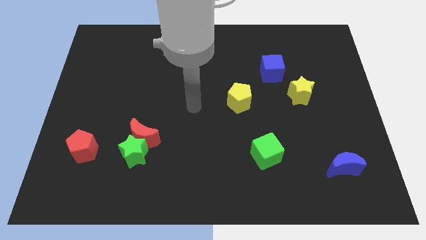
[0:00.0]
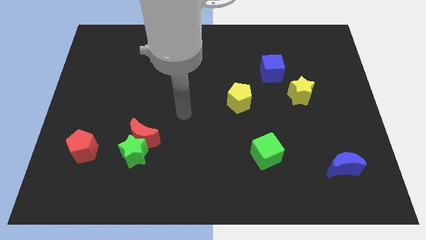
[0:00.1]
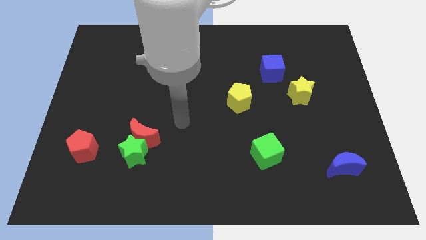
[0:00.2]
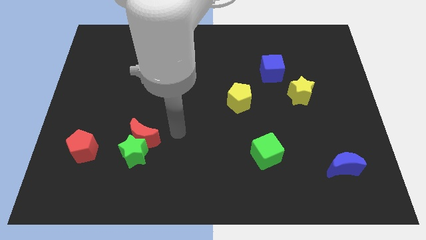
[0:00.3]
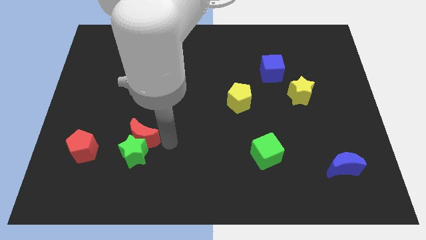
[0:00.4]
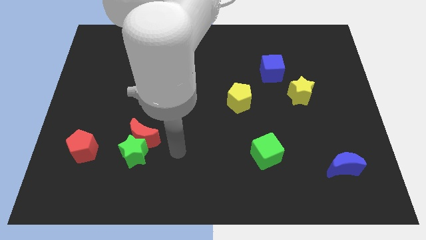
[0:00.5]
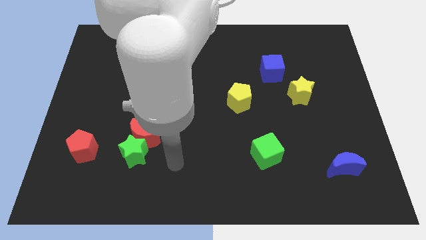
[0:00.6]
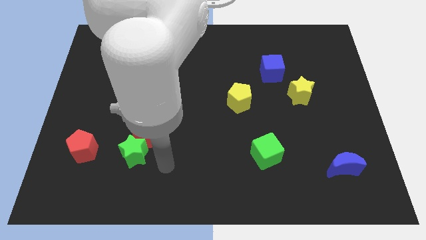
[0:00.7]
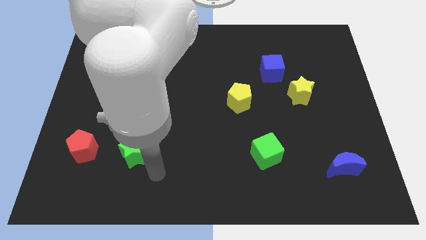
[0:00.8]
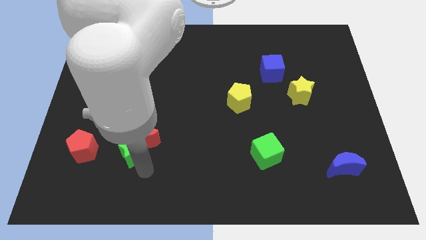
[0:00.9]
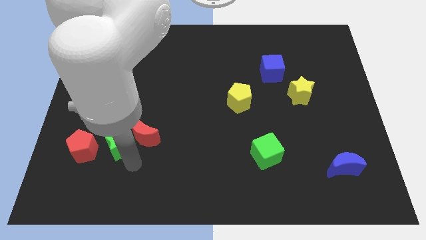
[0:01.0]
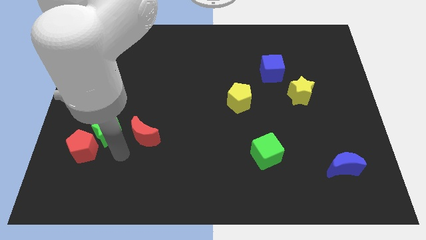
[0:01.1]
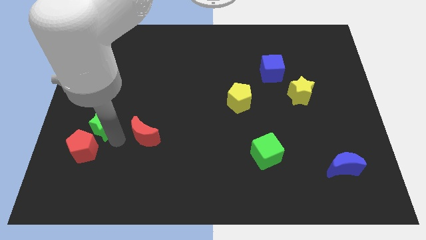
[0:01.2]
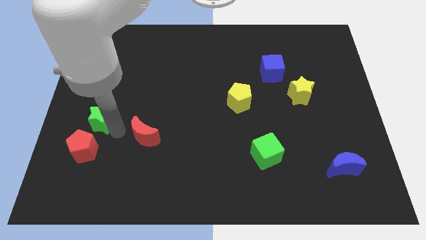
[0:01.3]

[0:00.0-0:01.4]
move the red moon away from the green star

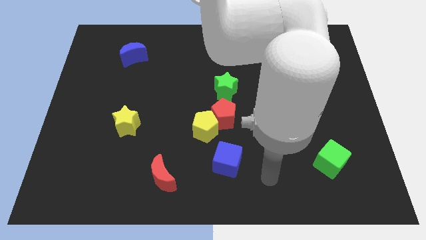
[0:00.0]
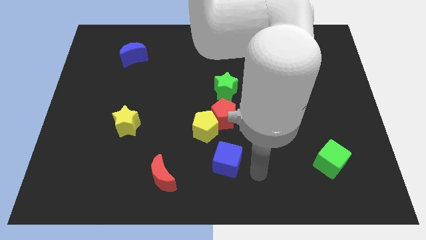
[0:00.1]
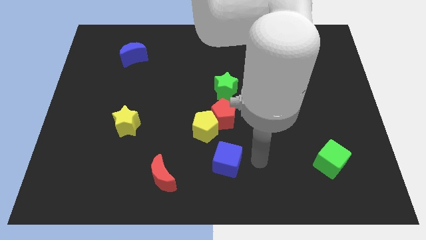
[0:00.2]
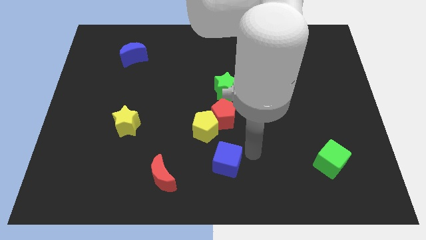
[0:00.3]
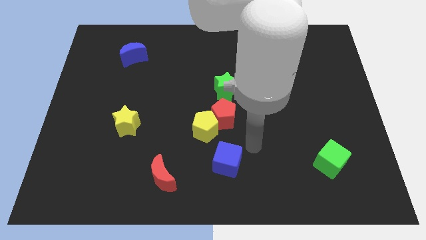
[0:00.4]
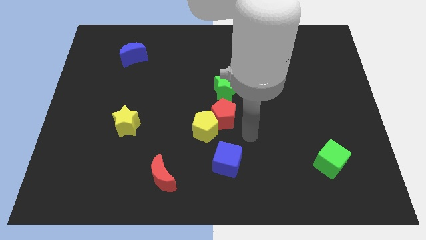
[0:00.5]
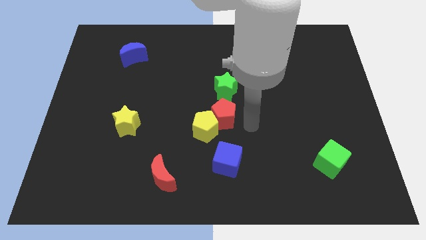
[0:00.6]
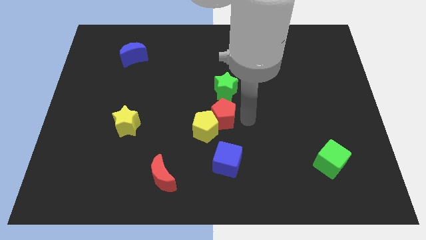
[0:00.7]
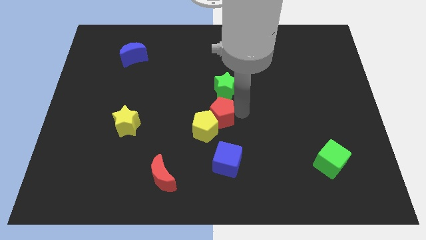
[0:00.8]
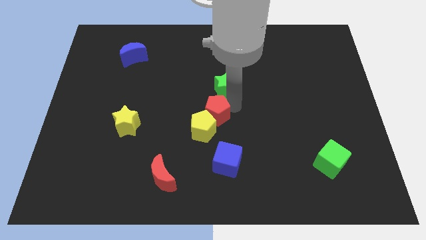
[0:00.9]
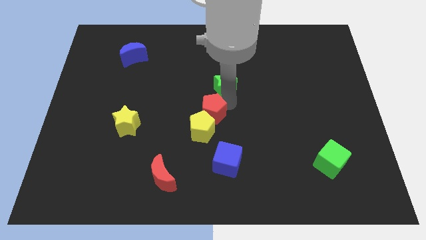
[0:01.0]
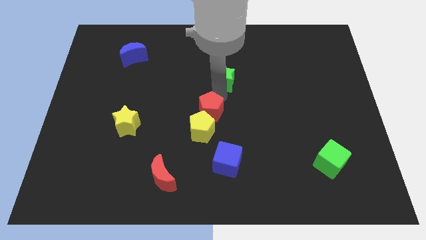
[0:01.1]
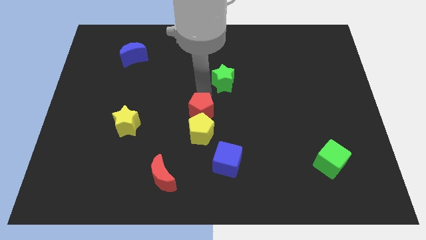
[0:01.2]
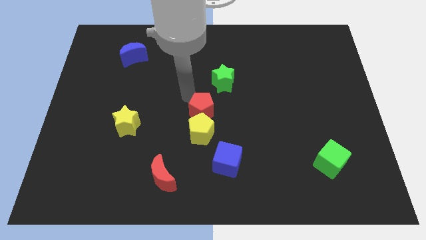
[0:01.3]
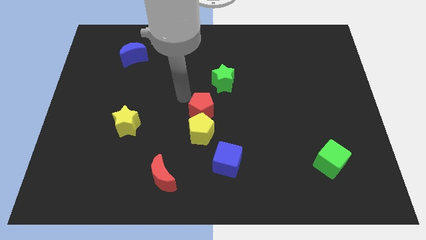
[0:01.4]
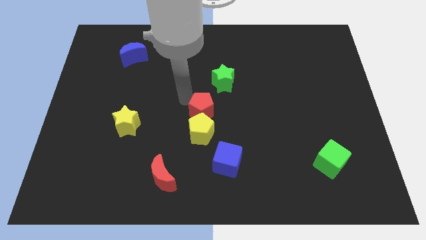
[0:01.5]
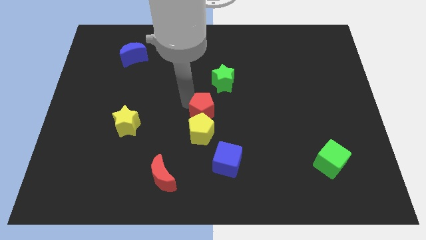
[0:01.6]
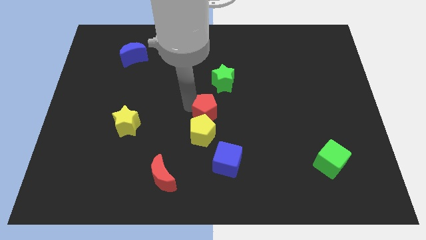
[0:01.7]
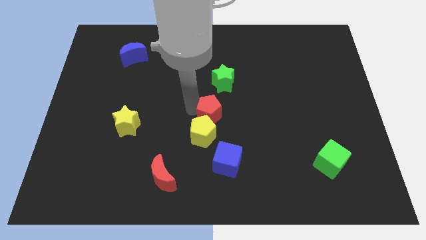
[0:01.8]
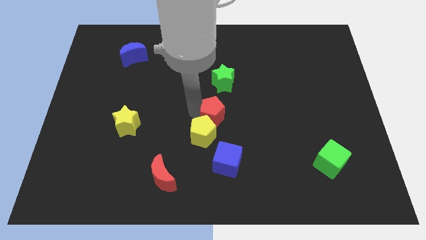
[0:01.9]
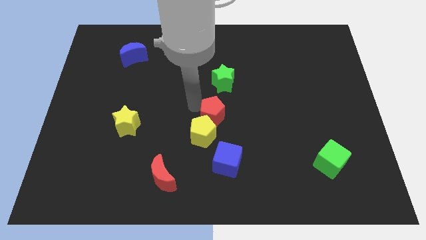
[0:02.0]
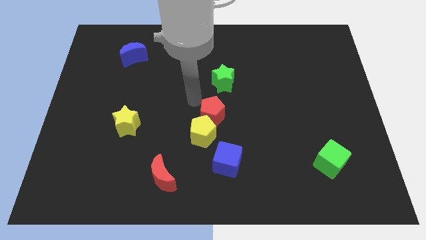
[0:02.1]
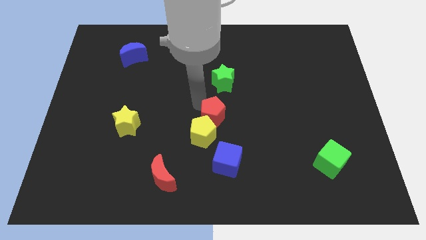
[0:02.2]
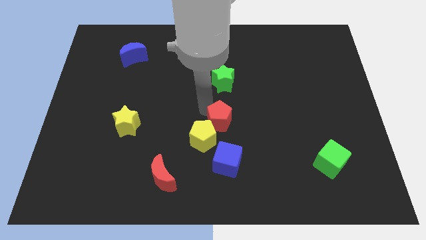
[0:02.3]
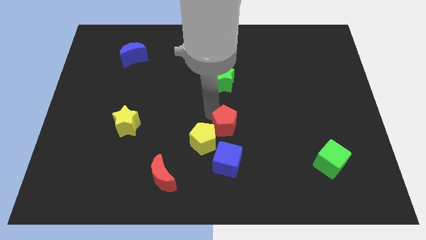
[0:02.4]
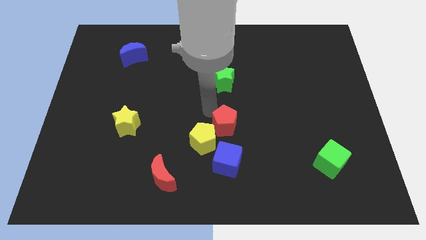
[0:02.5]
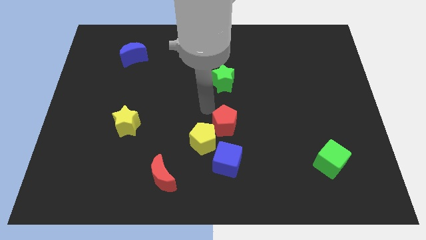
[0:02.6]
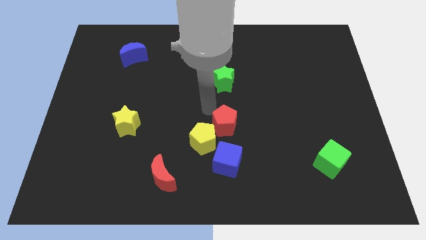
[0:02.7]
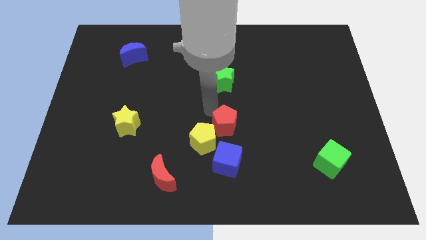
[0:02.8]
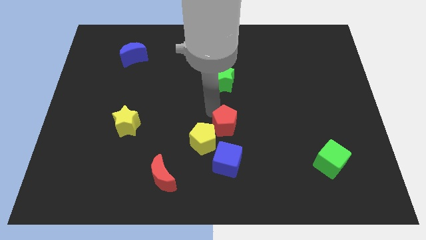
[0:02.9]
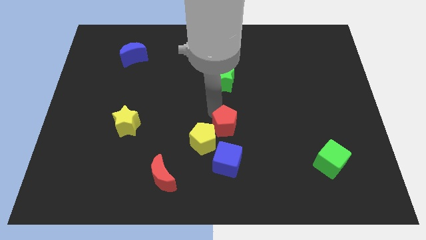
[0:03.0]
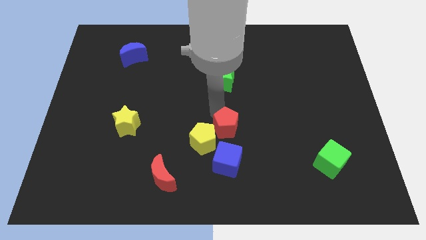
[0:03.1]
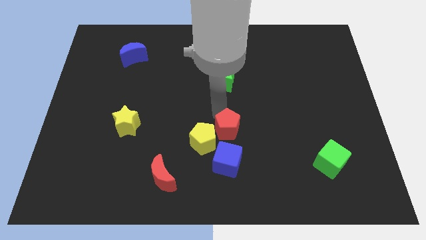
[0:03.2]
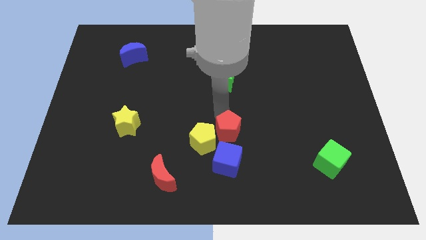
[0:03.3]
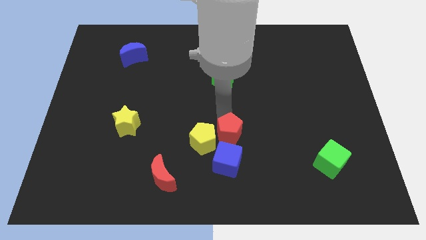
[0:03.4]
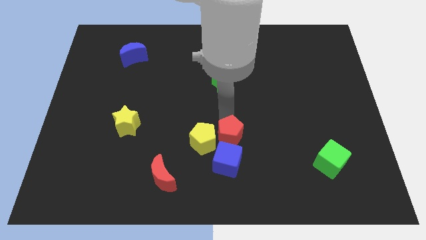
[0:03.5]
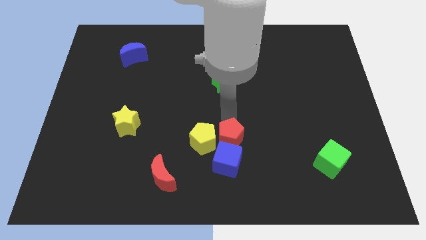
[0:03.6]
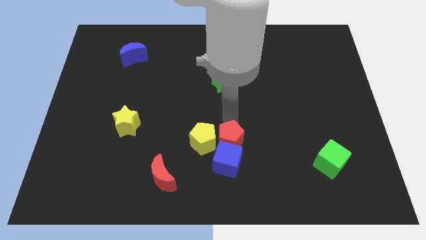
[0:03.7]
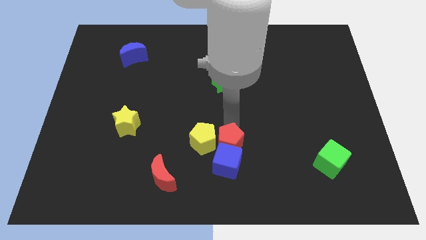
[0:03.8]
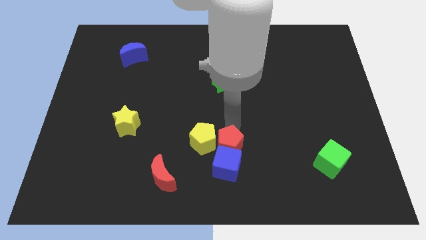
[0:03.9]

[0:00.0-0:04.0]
move the red pentagon away from the yellow pentagon and green star

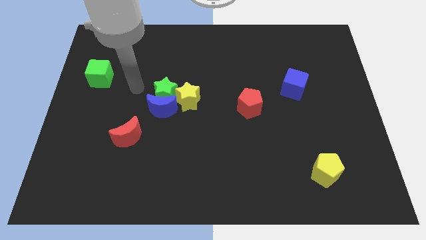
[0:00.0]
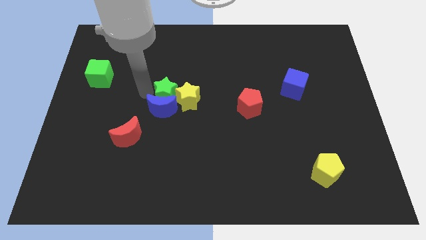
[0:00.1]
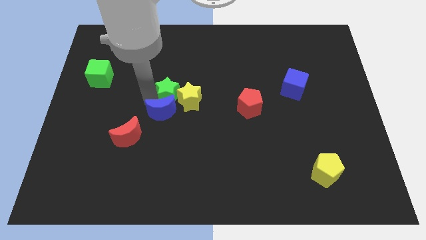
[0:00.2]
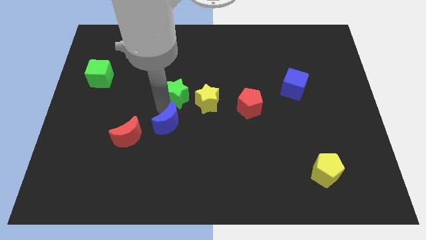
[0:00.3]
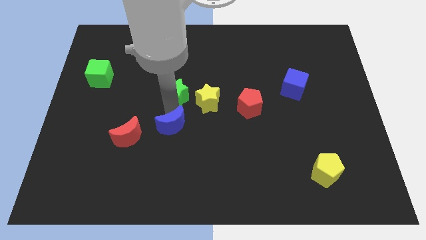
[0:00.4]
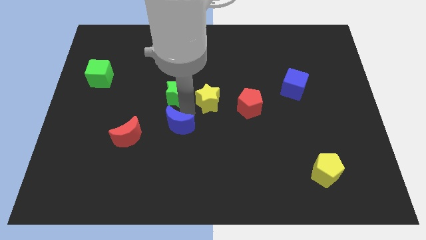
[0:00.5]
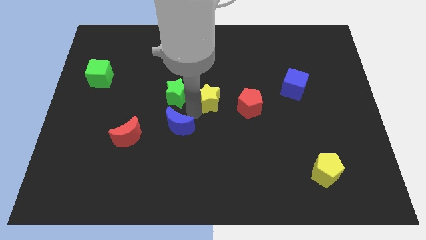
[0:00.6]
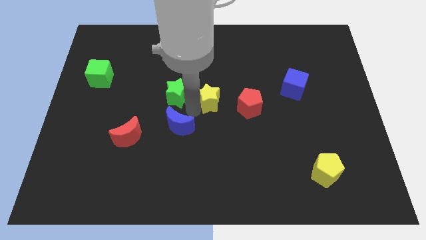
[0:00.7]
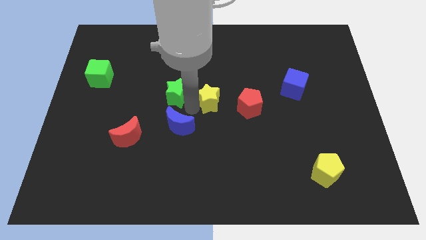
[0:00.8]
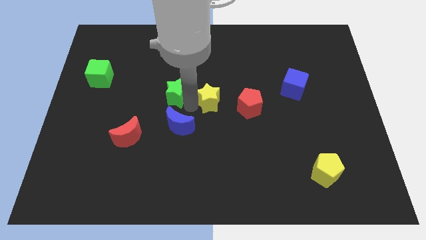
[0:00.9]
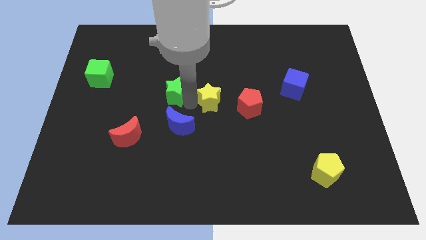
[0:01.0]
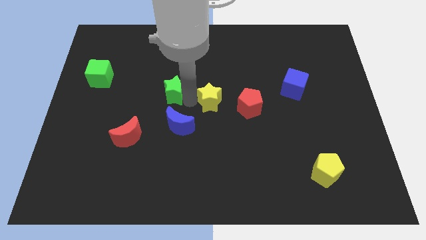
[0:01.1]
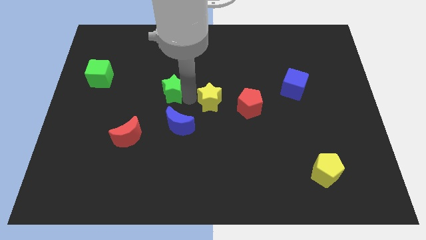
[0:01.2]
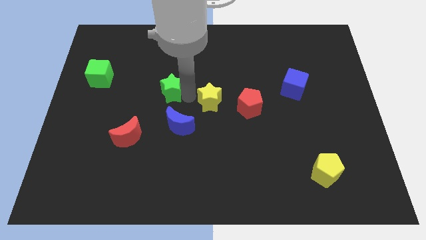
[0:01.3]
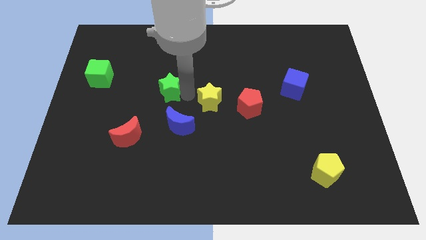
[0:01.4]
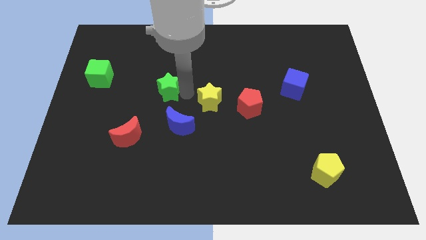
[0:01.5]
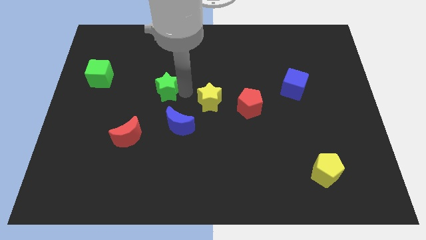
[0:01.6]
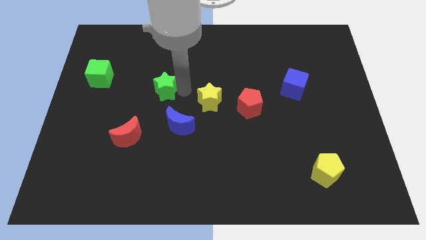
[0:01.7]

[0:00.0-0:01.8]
move the green star away from the blue moon and yellow star

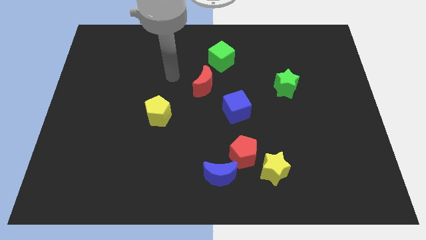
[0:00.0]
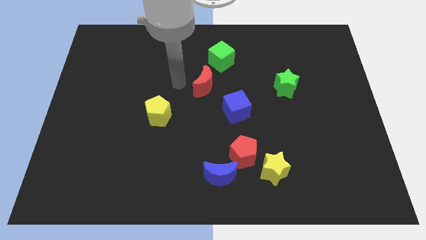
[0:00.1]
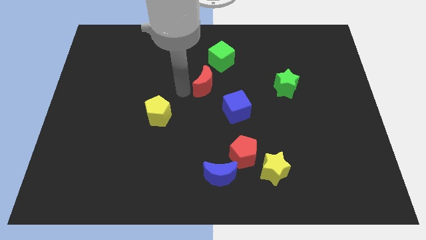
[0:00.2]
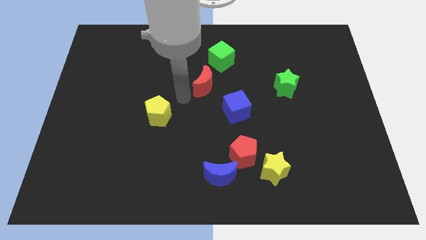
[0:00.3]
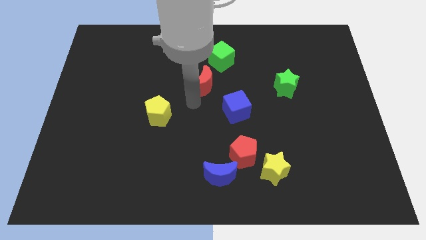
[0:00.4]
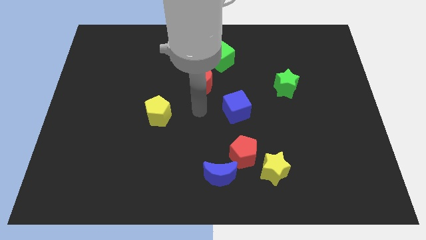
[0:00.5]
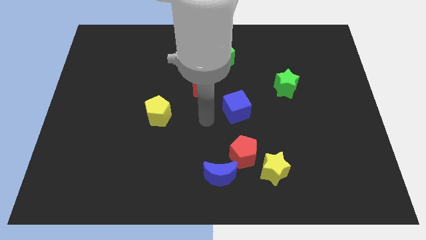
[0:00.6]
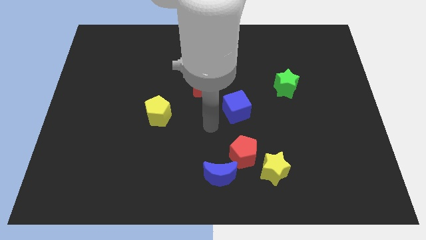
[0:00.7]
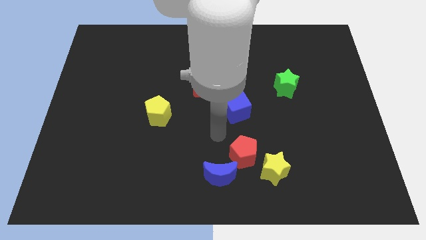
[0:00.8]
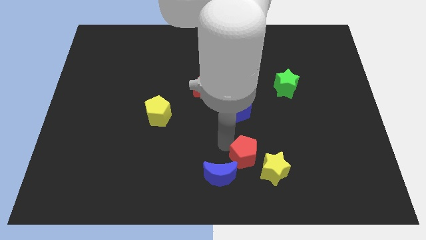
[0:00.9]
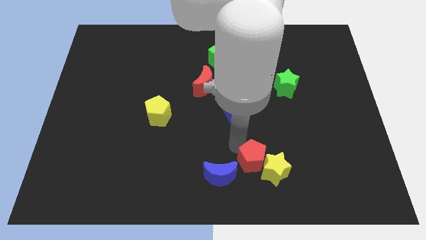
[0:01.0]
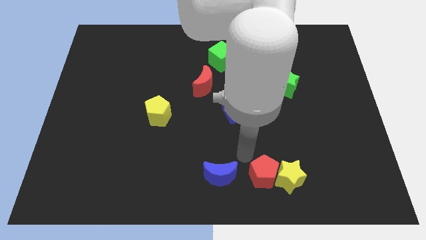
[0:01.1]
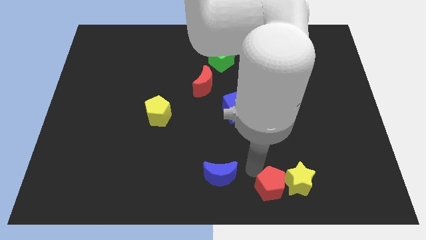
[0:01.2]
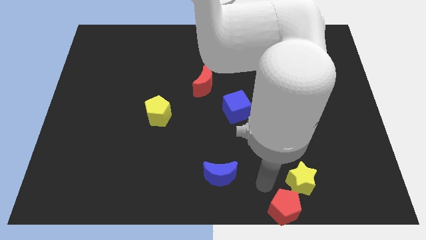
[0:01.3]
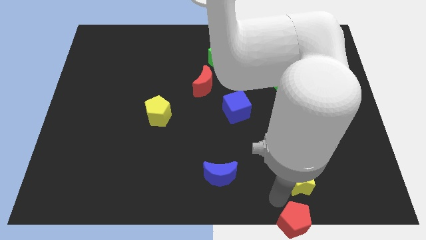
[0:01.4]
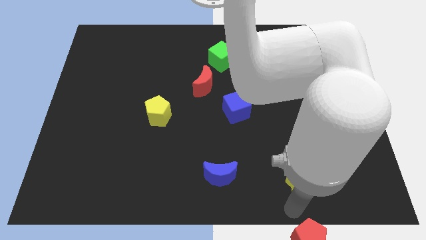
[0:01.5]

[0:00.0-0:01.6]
move the yellow star away from the red pentagon

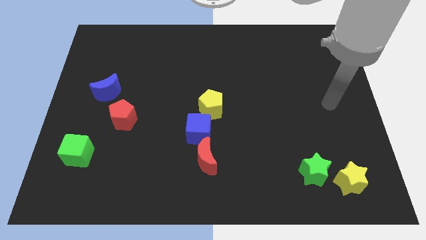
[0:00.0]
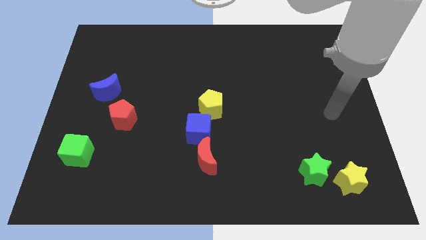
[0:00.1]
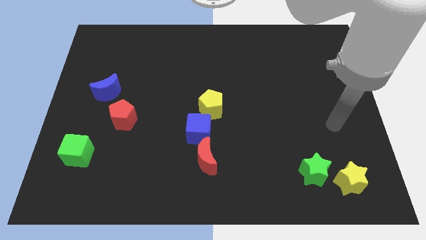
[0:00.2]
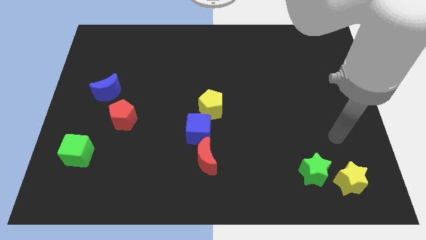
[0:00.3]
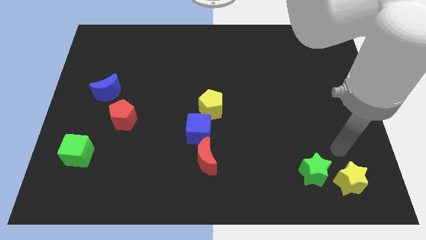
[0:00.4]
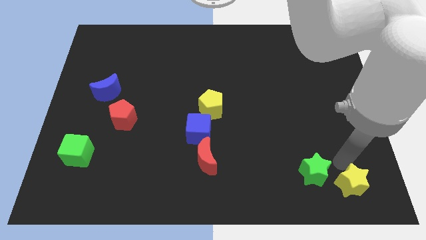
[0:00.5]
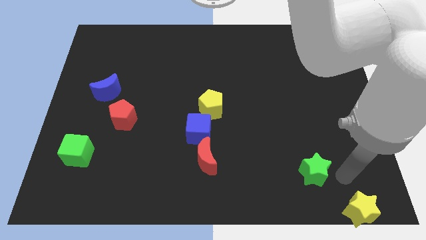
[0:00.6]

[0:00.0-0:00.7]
move the green star away from the yellow star
